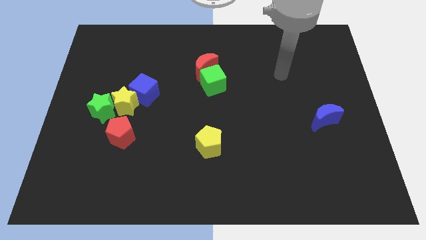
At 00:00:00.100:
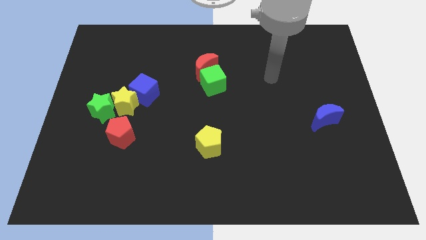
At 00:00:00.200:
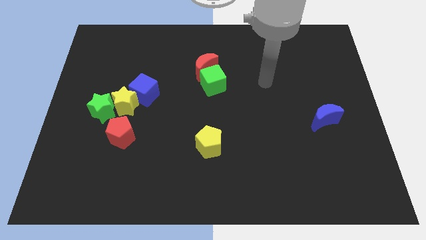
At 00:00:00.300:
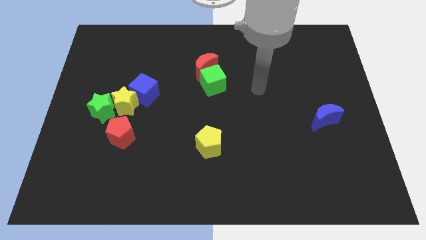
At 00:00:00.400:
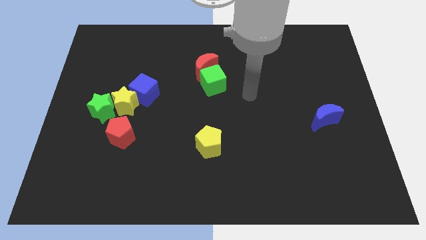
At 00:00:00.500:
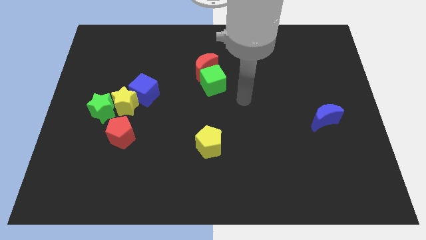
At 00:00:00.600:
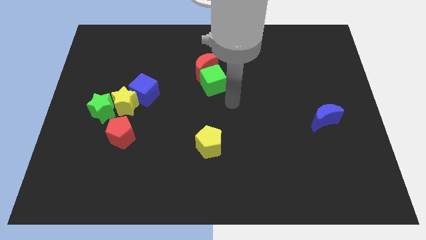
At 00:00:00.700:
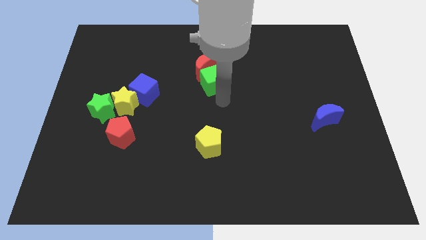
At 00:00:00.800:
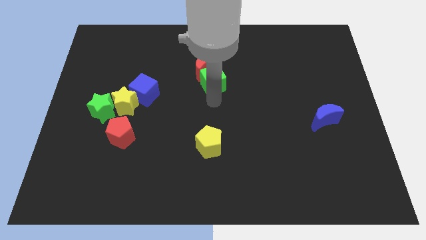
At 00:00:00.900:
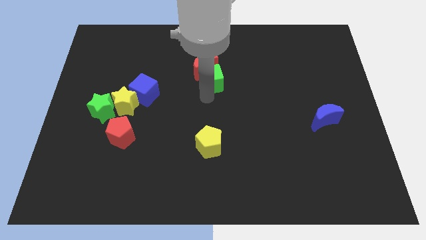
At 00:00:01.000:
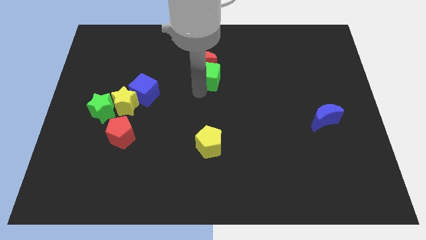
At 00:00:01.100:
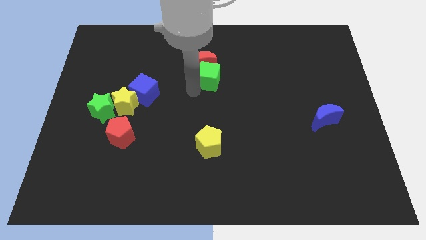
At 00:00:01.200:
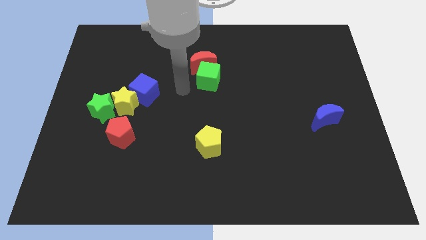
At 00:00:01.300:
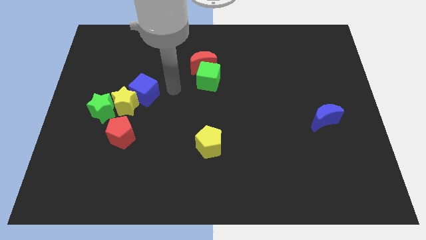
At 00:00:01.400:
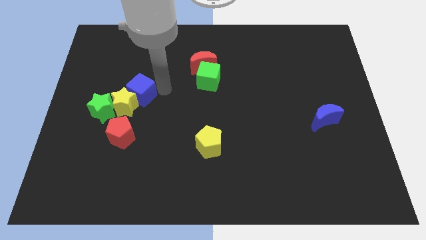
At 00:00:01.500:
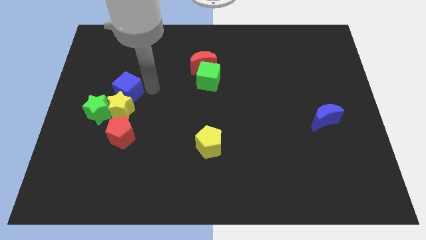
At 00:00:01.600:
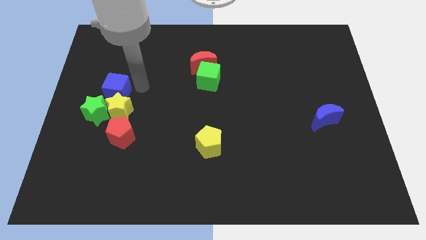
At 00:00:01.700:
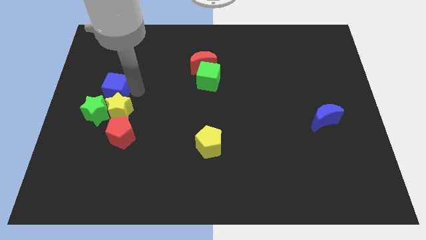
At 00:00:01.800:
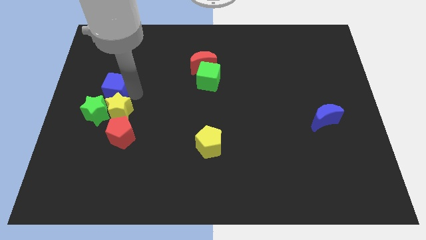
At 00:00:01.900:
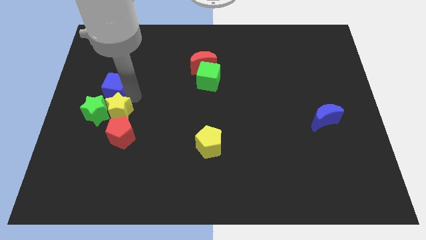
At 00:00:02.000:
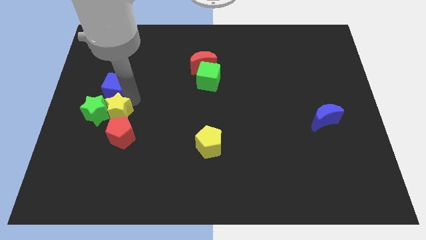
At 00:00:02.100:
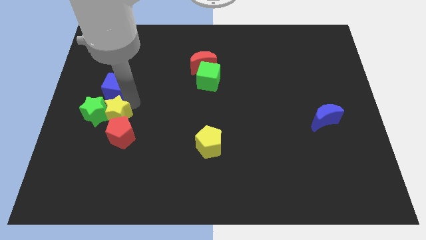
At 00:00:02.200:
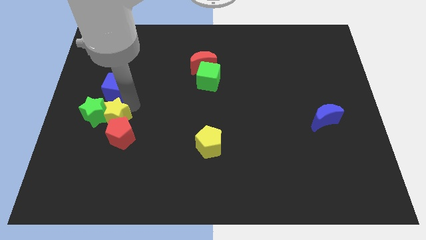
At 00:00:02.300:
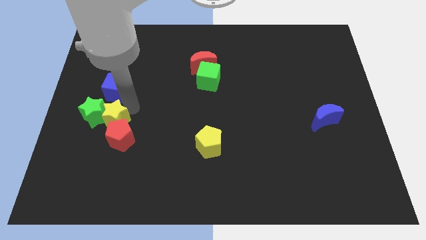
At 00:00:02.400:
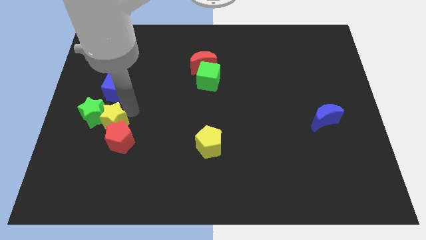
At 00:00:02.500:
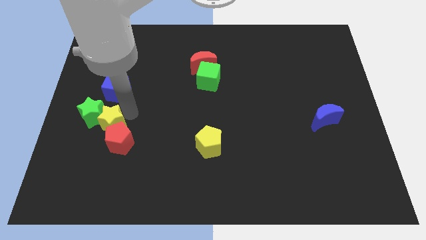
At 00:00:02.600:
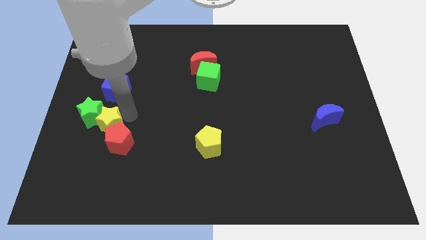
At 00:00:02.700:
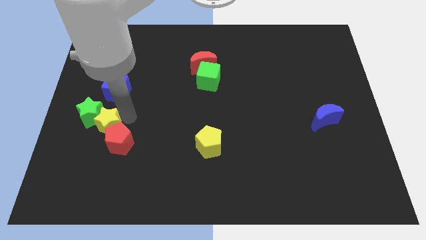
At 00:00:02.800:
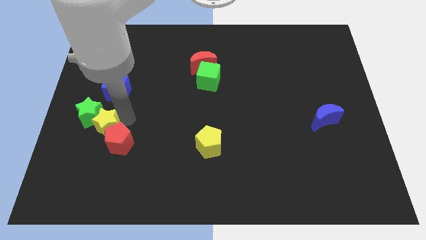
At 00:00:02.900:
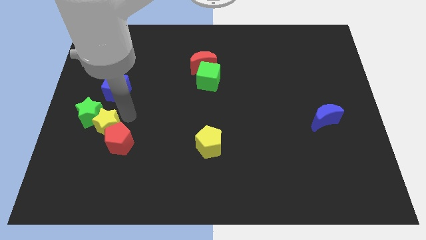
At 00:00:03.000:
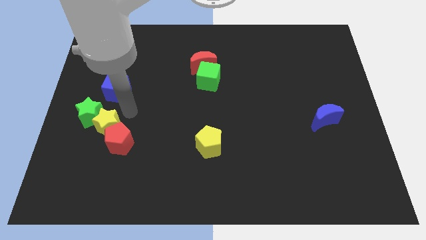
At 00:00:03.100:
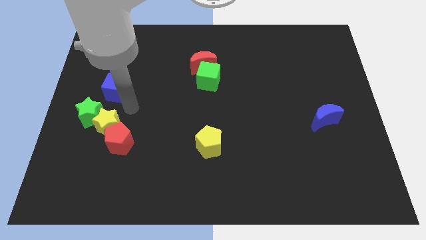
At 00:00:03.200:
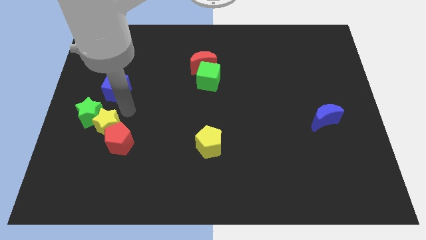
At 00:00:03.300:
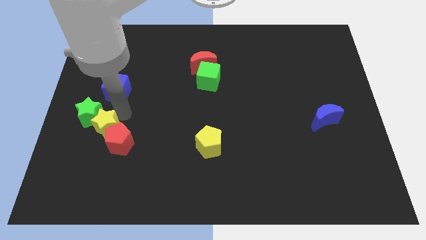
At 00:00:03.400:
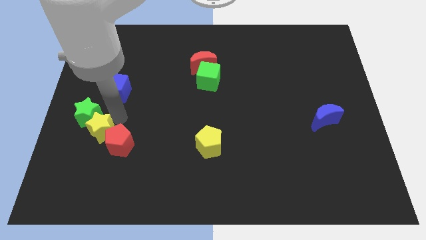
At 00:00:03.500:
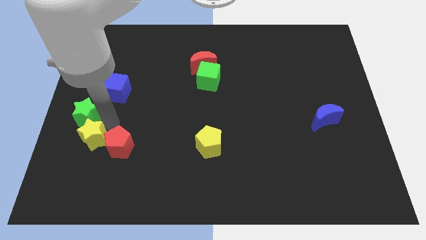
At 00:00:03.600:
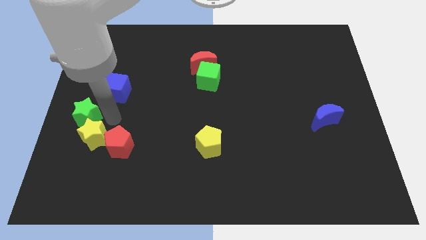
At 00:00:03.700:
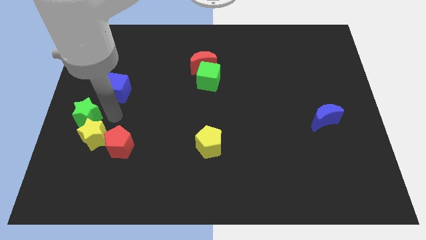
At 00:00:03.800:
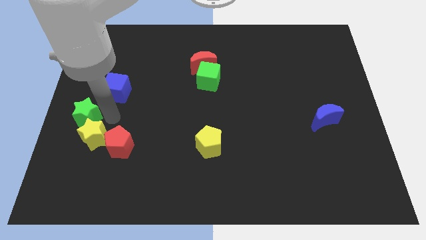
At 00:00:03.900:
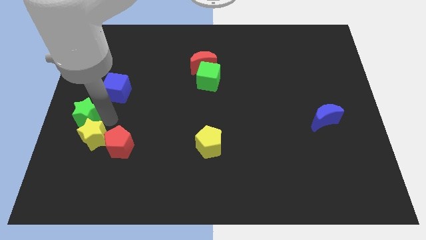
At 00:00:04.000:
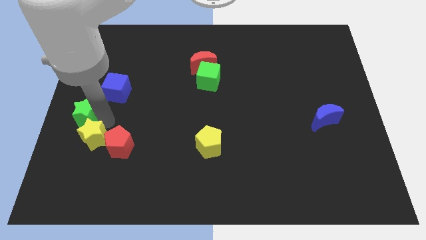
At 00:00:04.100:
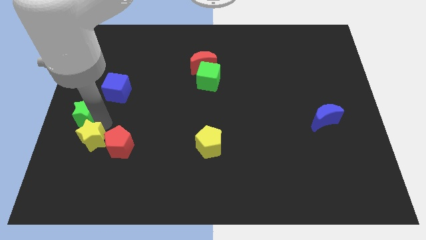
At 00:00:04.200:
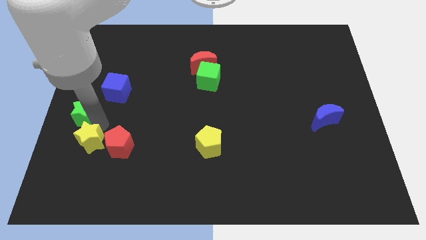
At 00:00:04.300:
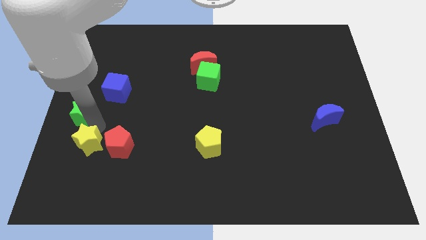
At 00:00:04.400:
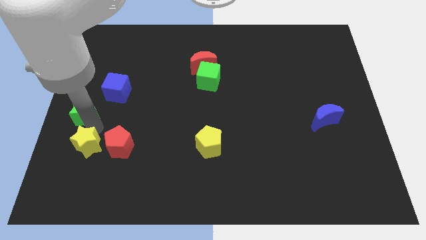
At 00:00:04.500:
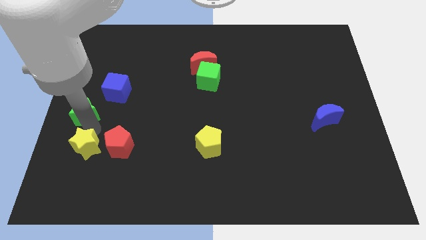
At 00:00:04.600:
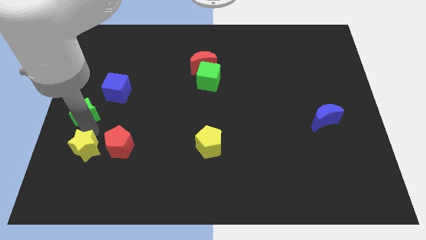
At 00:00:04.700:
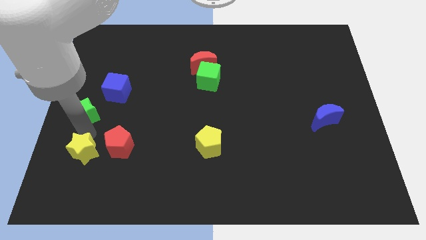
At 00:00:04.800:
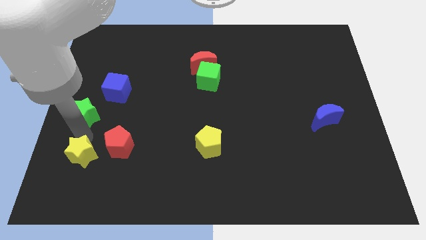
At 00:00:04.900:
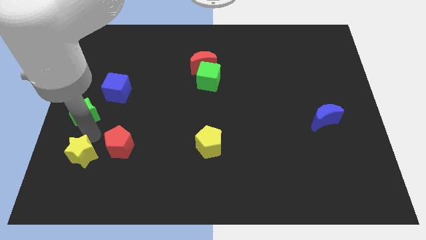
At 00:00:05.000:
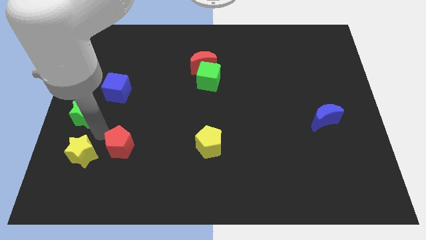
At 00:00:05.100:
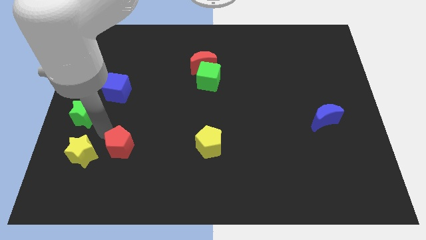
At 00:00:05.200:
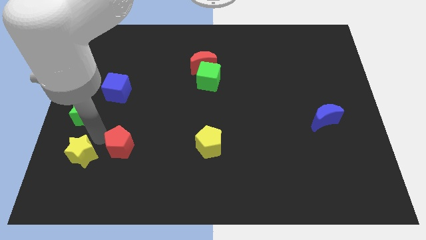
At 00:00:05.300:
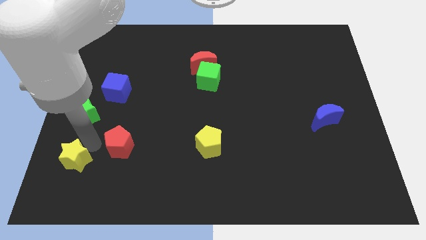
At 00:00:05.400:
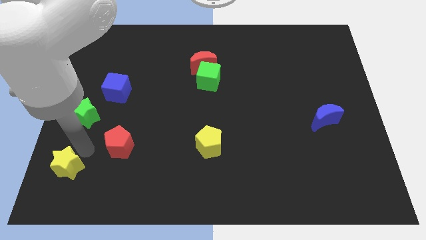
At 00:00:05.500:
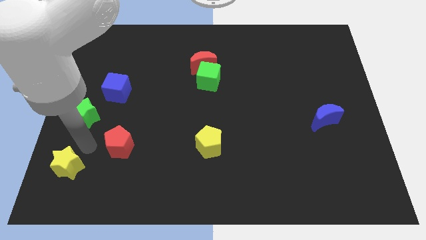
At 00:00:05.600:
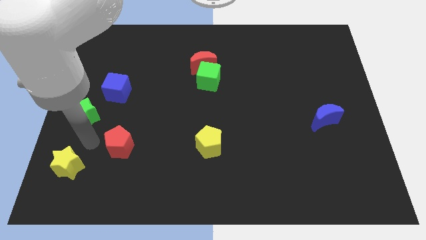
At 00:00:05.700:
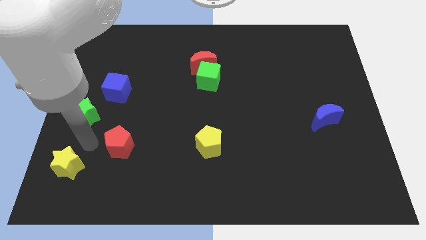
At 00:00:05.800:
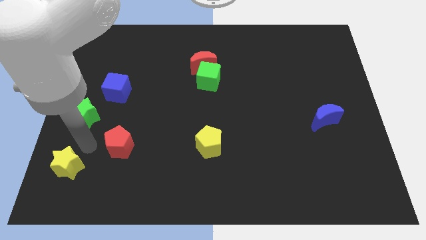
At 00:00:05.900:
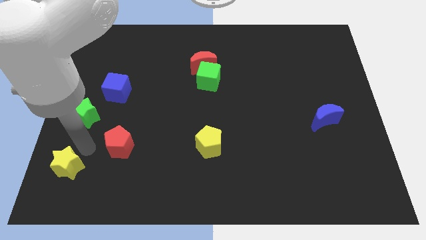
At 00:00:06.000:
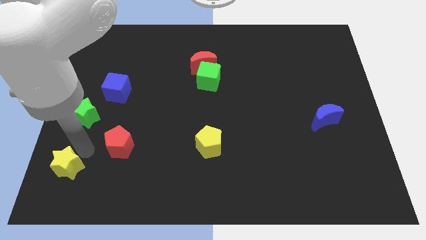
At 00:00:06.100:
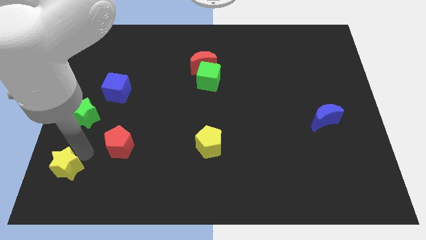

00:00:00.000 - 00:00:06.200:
put the yellow star to the bottom left corner

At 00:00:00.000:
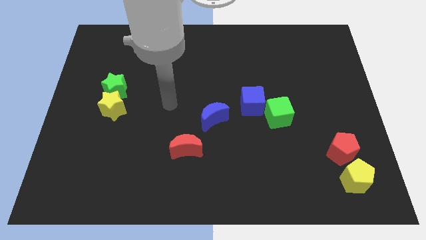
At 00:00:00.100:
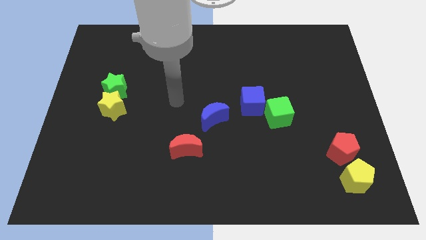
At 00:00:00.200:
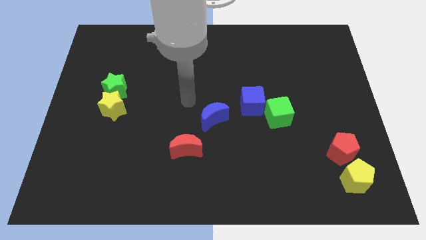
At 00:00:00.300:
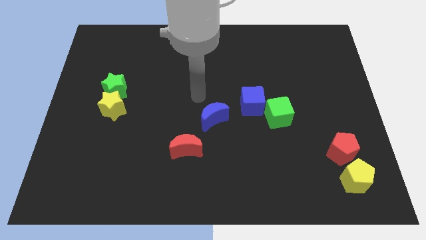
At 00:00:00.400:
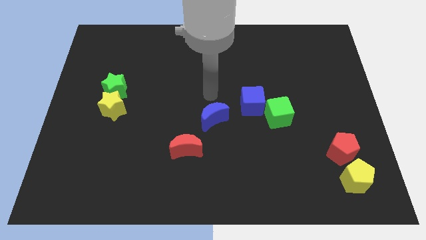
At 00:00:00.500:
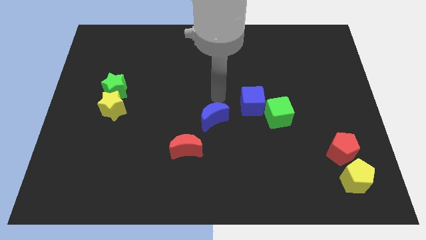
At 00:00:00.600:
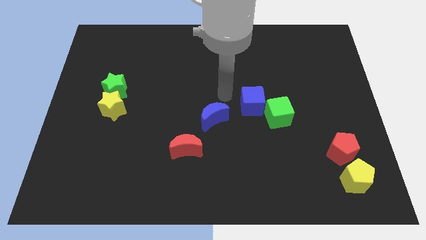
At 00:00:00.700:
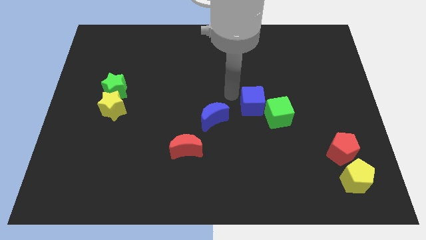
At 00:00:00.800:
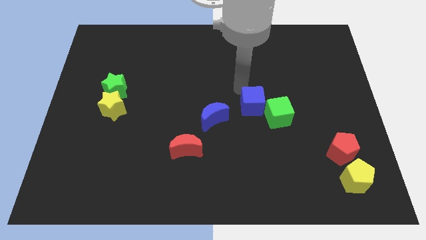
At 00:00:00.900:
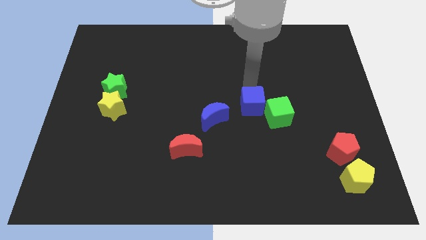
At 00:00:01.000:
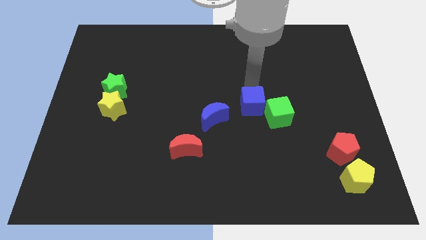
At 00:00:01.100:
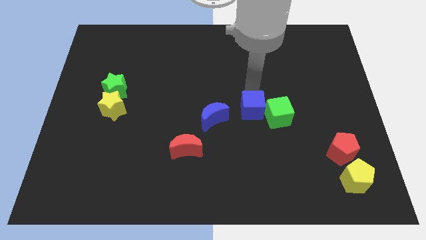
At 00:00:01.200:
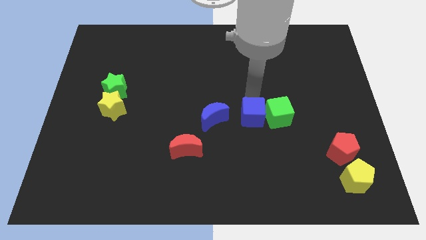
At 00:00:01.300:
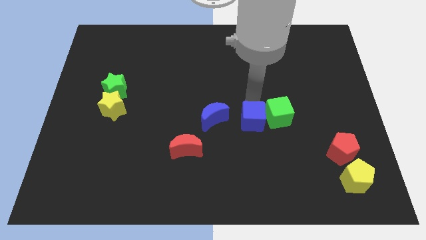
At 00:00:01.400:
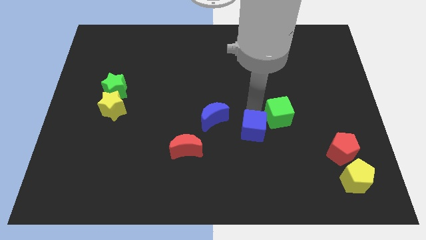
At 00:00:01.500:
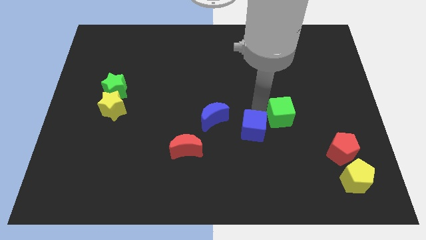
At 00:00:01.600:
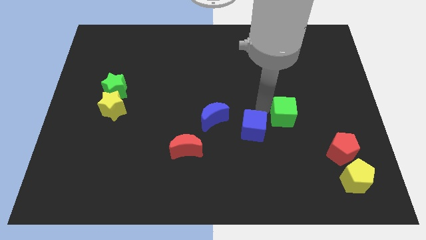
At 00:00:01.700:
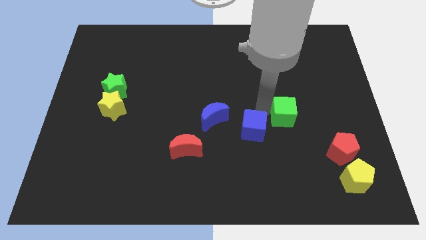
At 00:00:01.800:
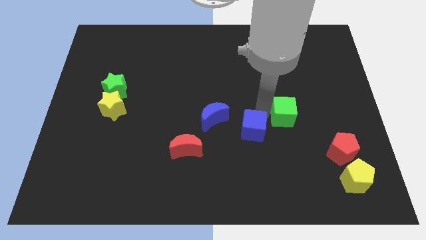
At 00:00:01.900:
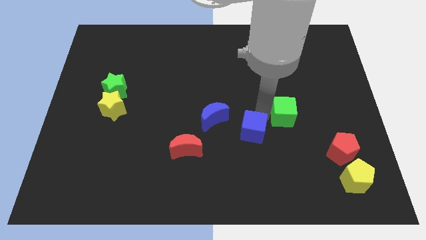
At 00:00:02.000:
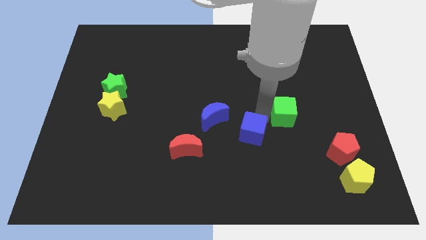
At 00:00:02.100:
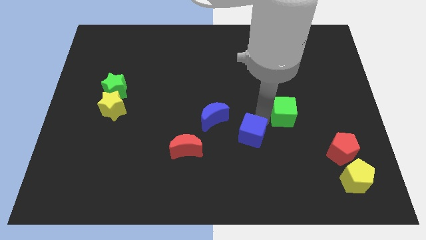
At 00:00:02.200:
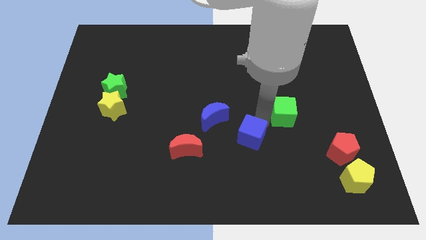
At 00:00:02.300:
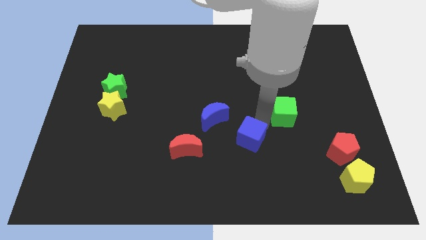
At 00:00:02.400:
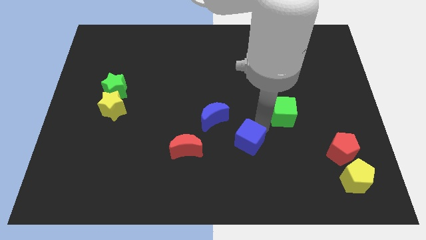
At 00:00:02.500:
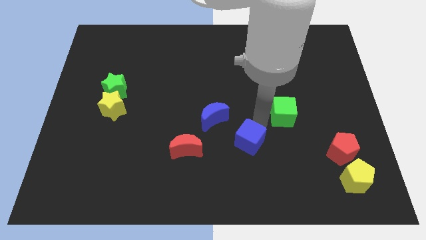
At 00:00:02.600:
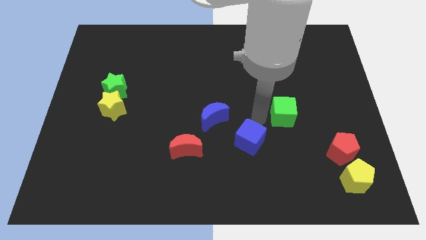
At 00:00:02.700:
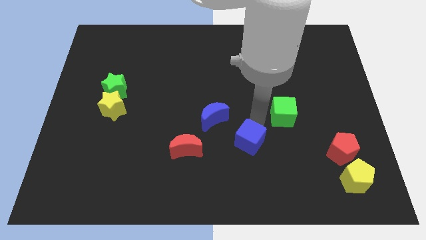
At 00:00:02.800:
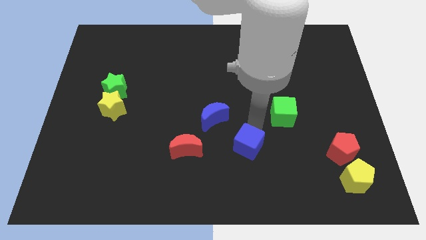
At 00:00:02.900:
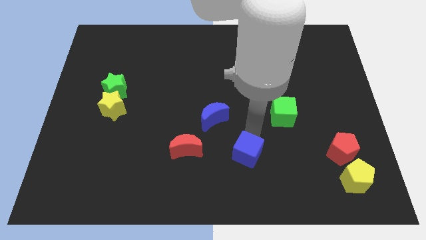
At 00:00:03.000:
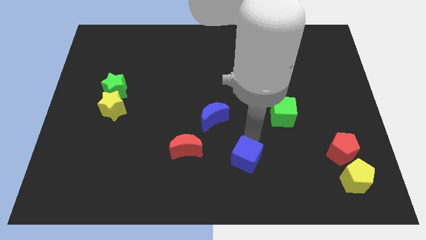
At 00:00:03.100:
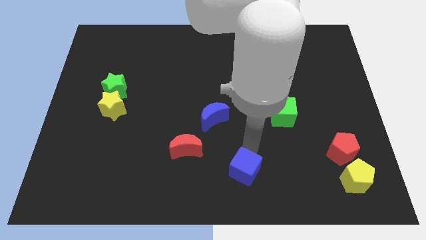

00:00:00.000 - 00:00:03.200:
slide the blue cube to the bottom
